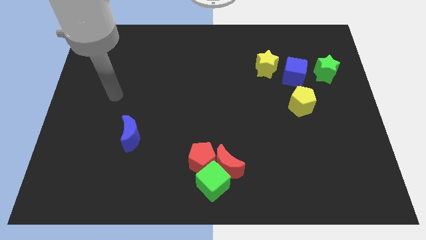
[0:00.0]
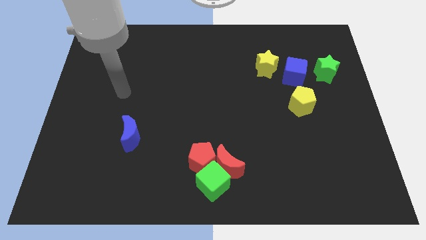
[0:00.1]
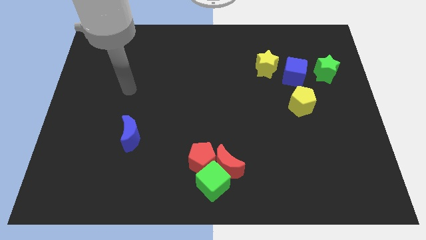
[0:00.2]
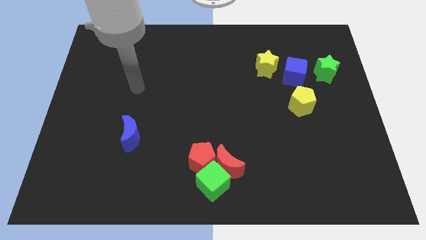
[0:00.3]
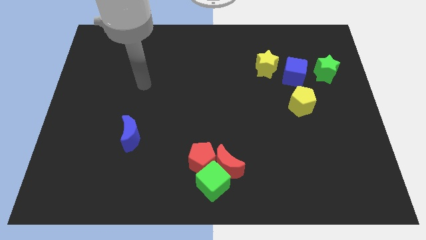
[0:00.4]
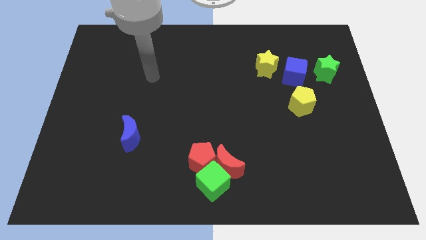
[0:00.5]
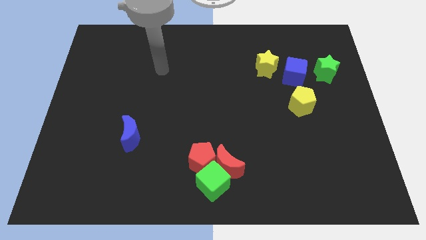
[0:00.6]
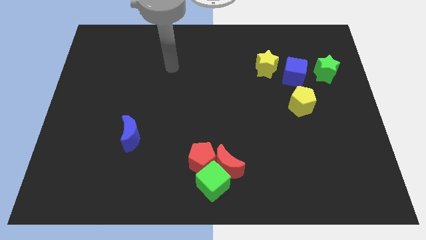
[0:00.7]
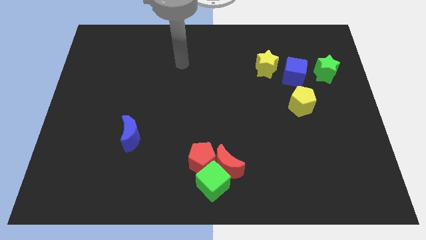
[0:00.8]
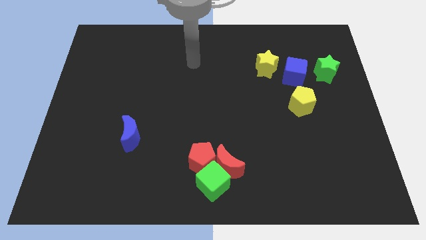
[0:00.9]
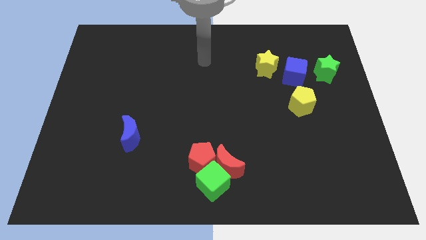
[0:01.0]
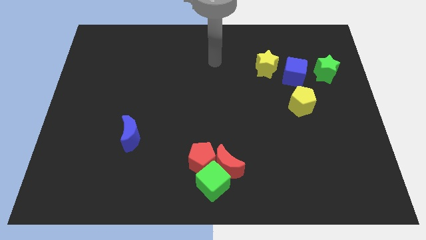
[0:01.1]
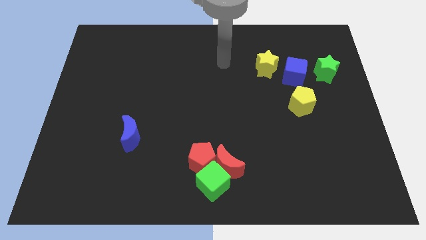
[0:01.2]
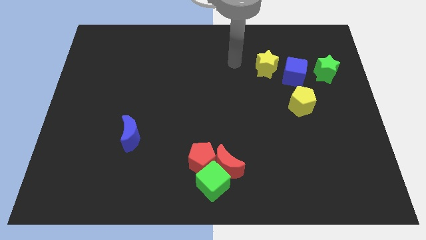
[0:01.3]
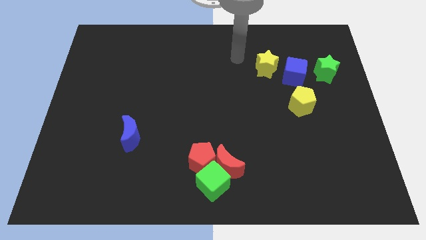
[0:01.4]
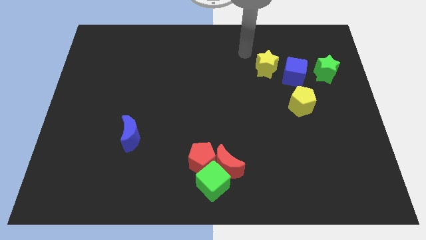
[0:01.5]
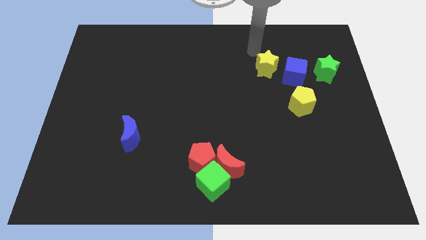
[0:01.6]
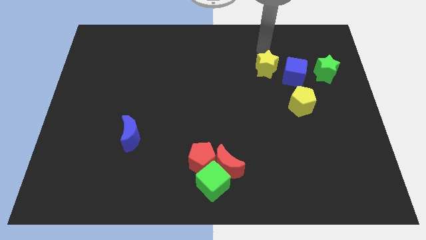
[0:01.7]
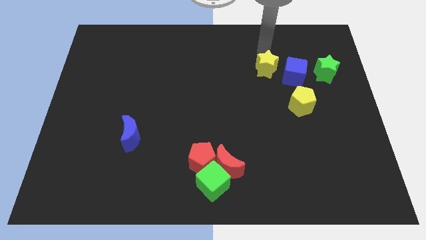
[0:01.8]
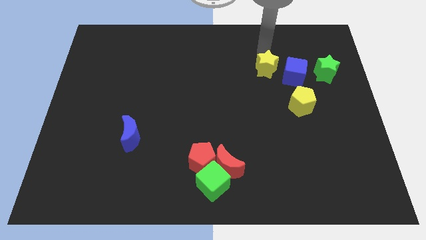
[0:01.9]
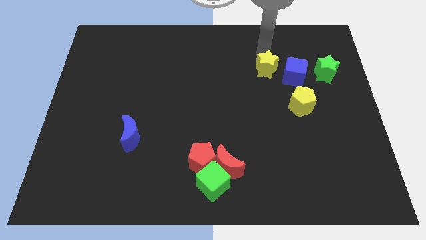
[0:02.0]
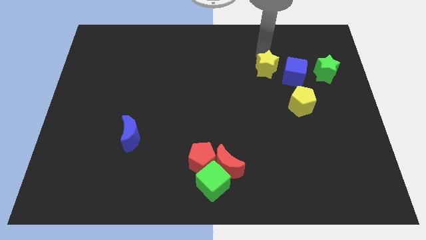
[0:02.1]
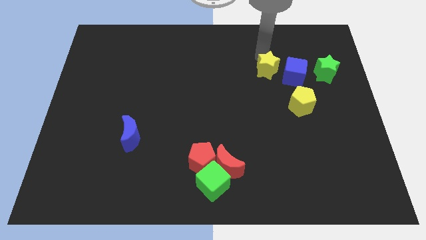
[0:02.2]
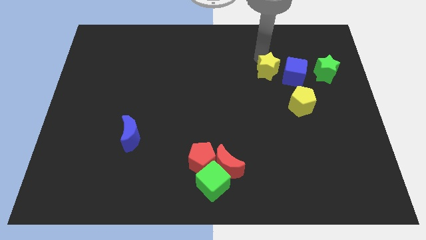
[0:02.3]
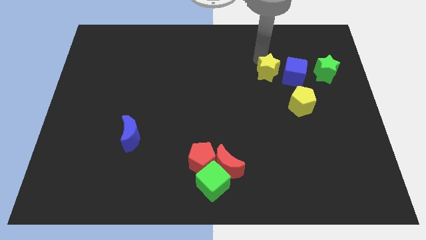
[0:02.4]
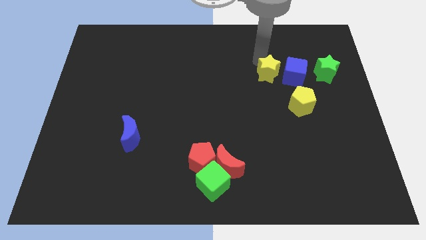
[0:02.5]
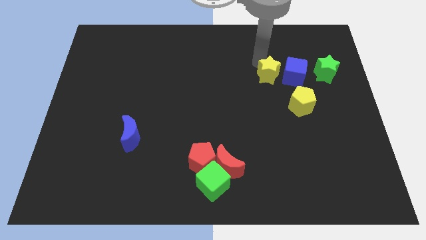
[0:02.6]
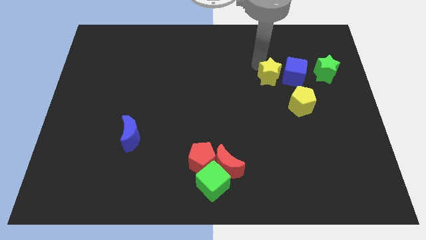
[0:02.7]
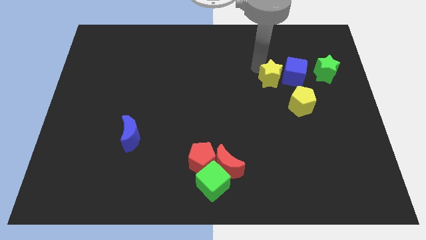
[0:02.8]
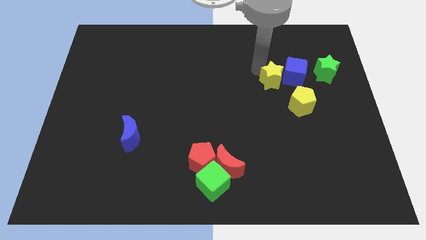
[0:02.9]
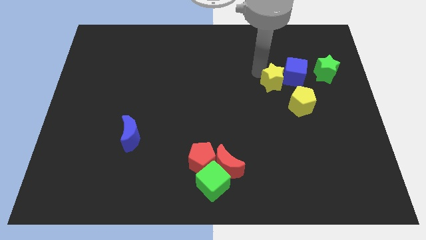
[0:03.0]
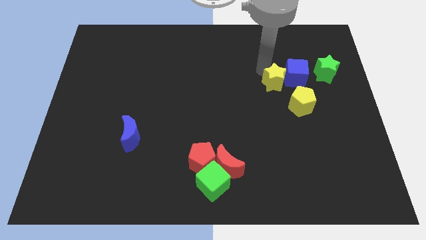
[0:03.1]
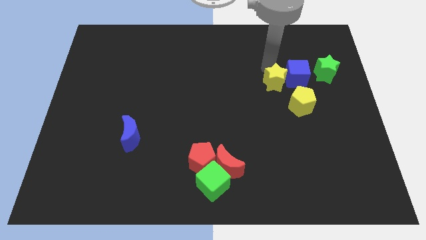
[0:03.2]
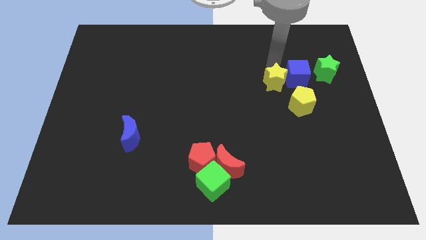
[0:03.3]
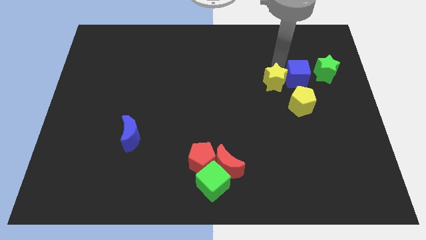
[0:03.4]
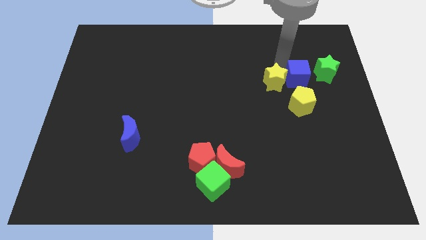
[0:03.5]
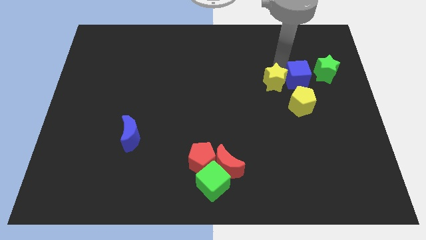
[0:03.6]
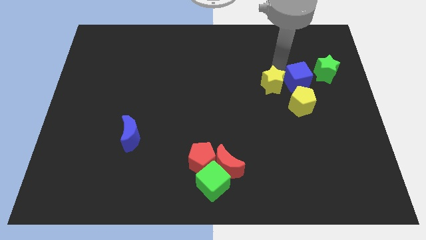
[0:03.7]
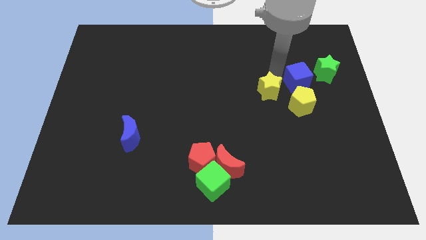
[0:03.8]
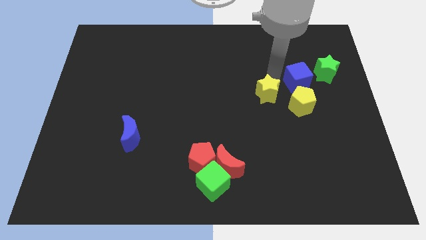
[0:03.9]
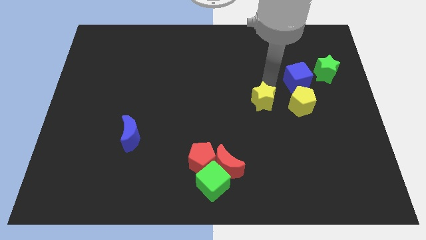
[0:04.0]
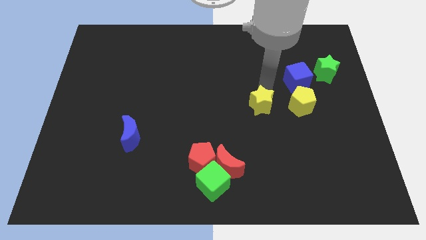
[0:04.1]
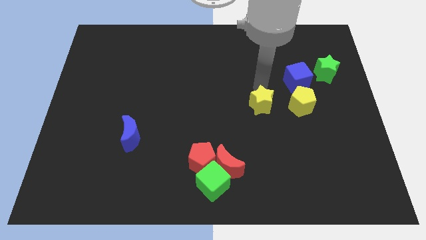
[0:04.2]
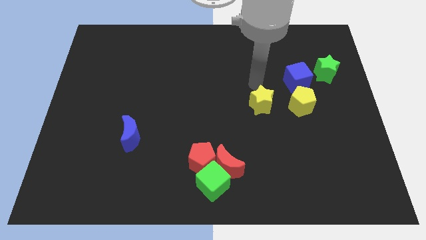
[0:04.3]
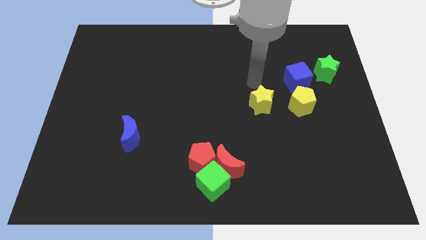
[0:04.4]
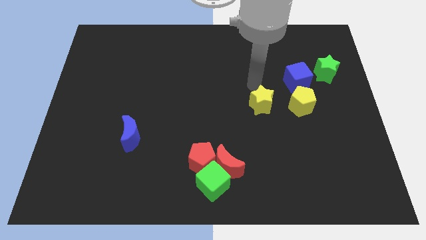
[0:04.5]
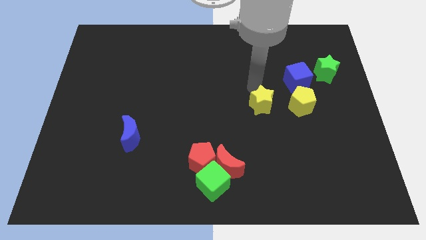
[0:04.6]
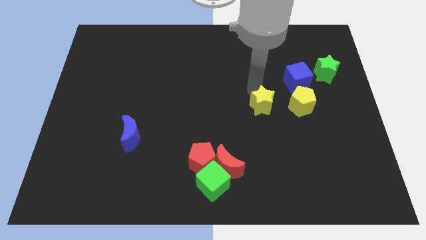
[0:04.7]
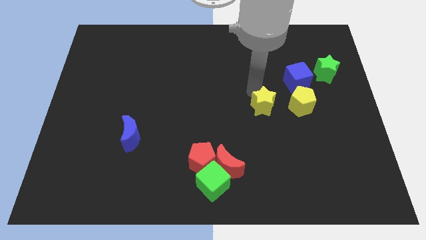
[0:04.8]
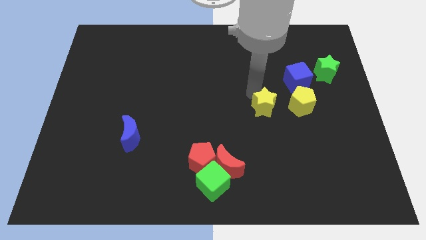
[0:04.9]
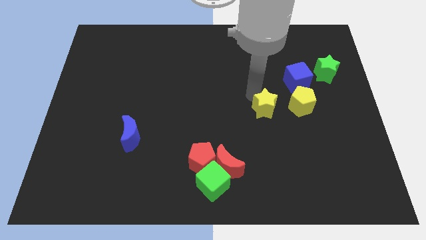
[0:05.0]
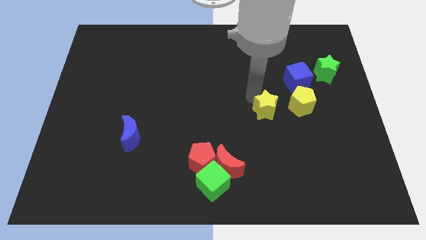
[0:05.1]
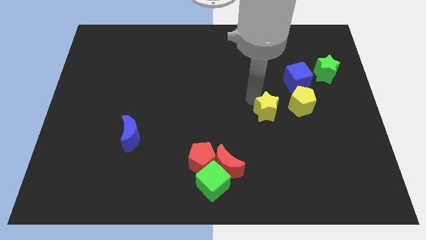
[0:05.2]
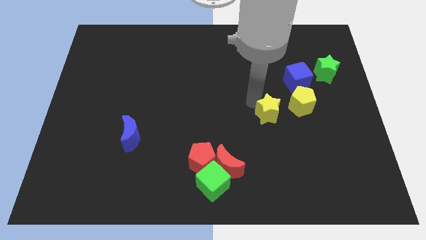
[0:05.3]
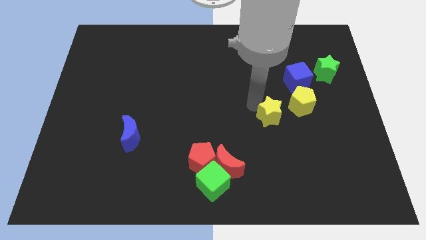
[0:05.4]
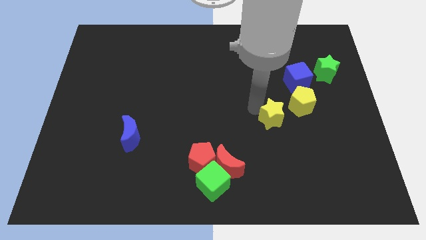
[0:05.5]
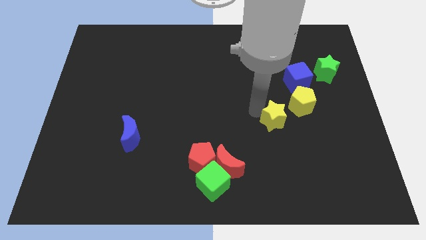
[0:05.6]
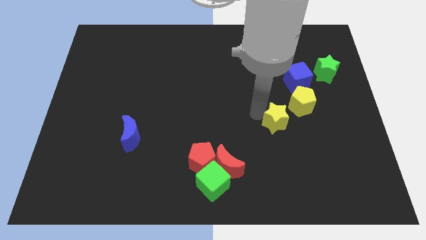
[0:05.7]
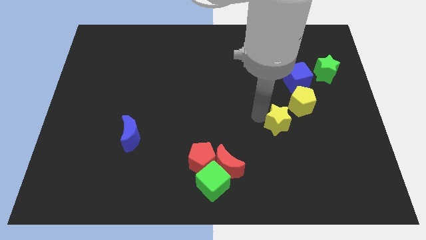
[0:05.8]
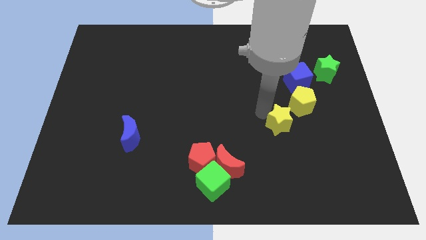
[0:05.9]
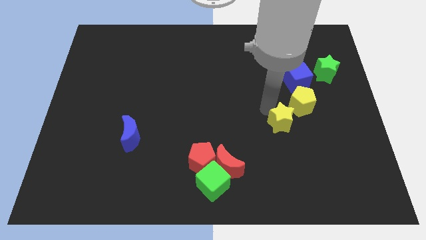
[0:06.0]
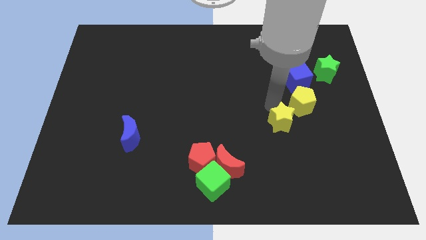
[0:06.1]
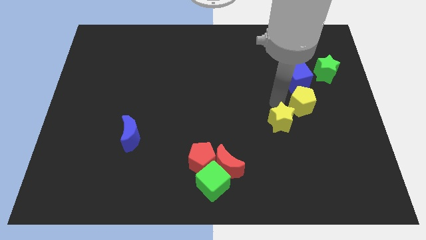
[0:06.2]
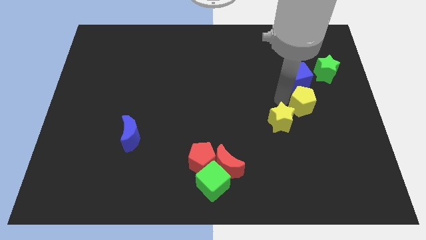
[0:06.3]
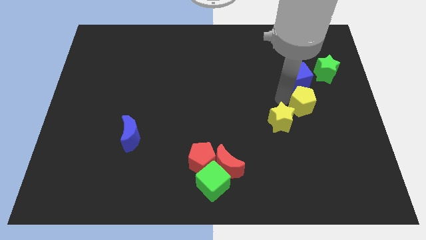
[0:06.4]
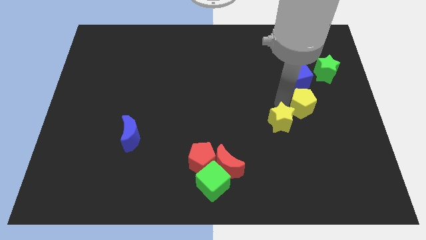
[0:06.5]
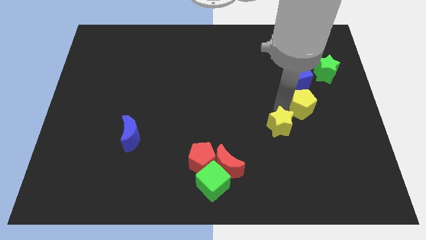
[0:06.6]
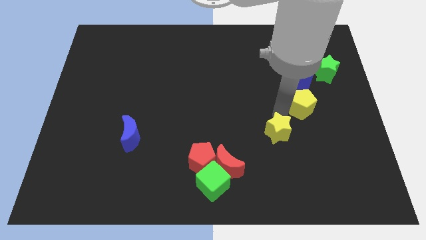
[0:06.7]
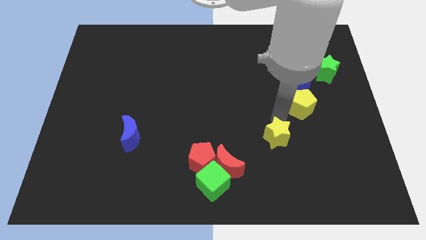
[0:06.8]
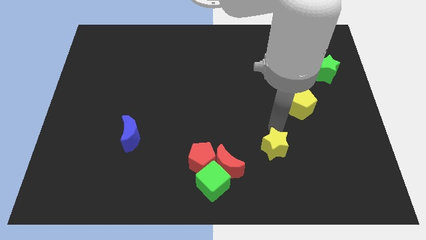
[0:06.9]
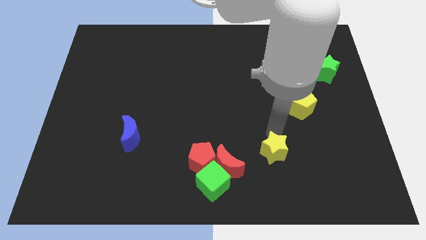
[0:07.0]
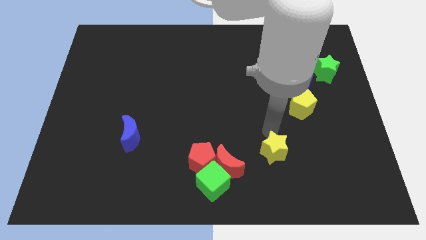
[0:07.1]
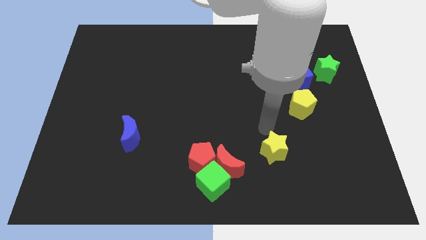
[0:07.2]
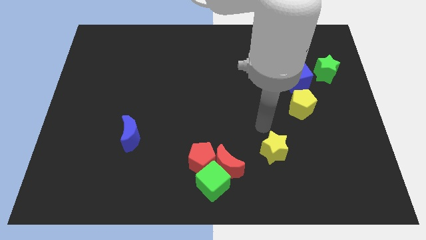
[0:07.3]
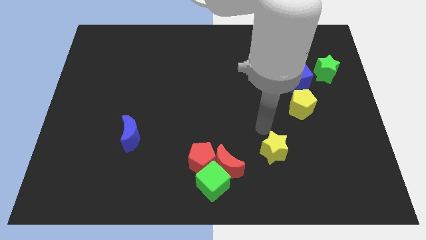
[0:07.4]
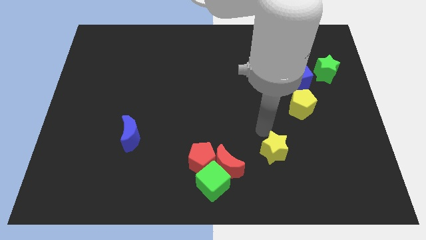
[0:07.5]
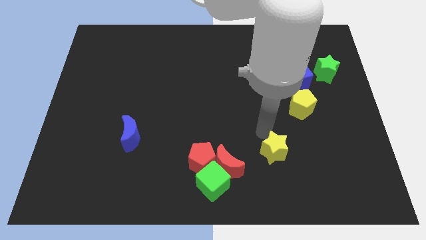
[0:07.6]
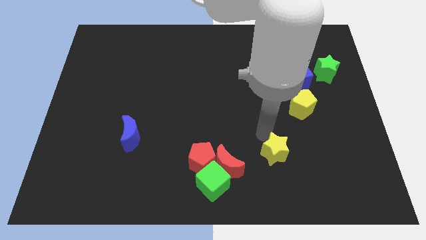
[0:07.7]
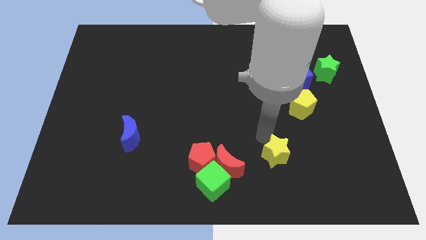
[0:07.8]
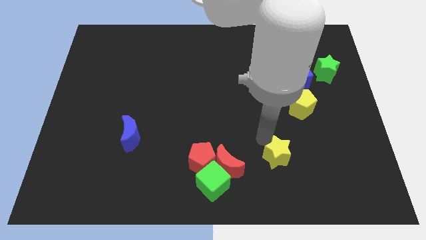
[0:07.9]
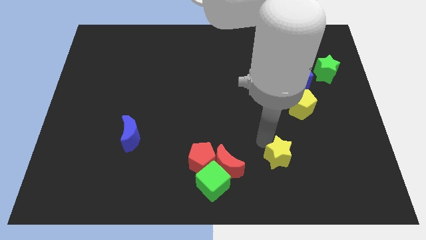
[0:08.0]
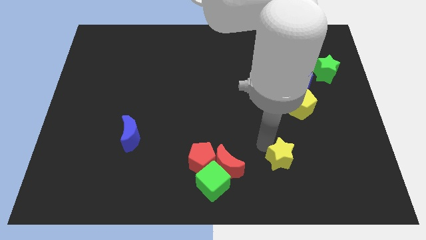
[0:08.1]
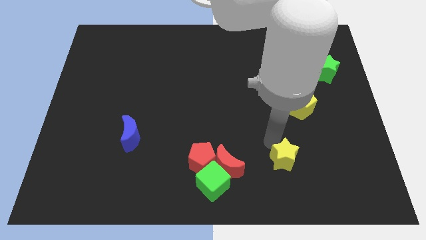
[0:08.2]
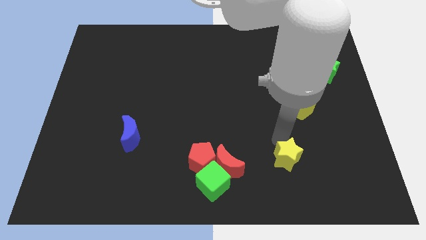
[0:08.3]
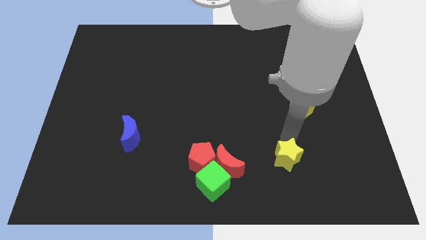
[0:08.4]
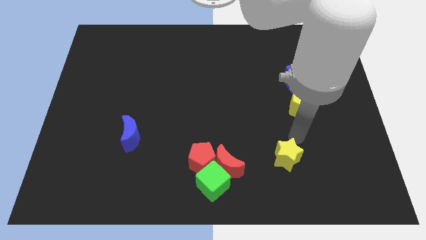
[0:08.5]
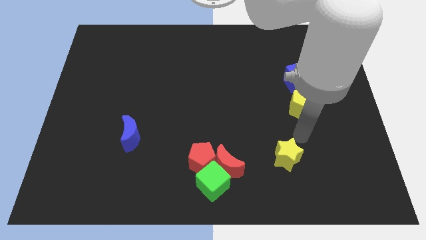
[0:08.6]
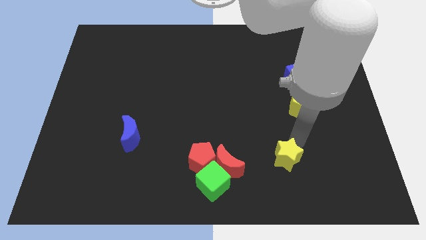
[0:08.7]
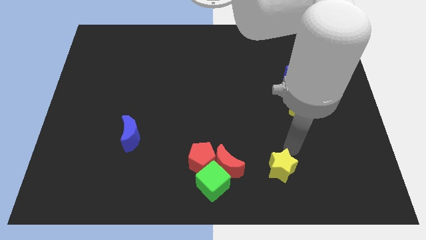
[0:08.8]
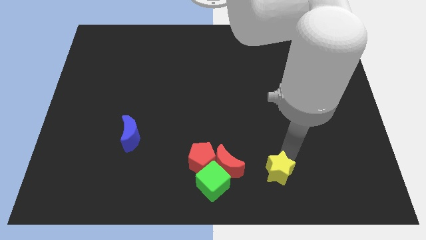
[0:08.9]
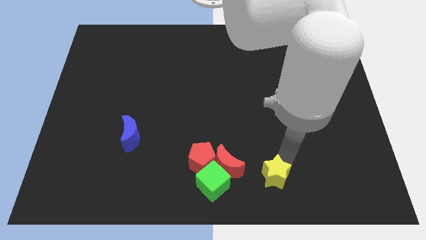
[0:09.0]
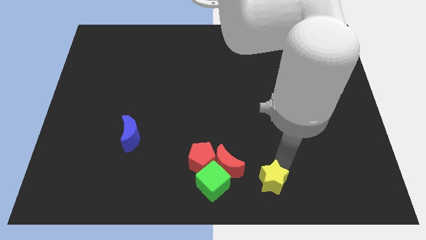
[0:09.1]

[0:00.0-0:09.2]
slide the yellow star to the bottom
